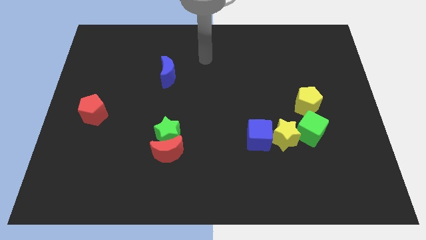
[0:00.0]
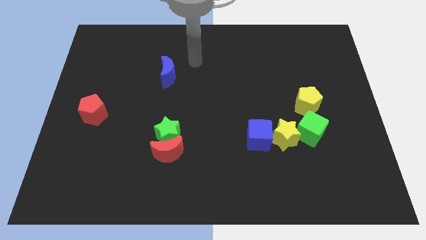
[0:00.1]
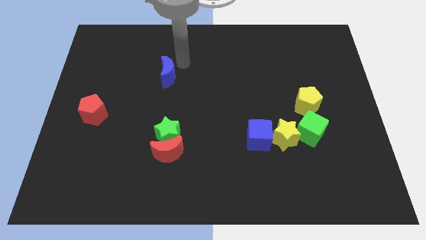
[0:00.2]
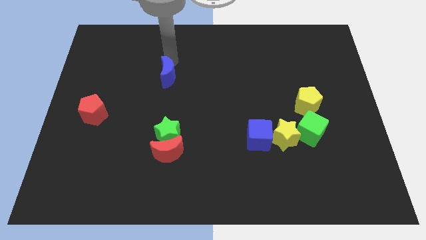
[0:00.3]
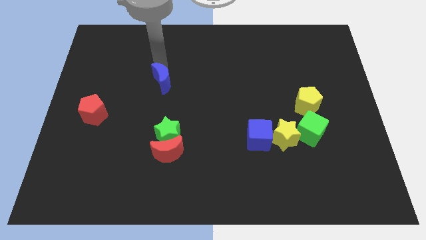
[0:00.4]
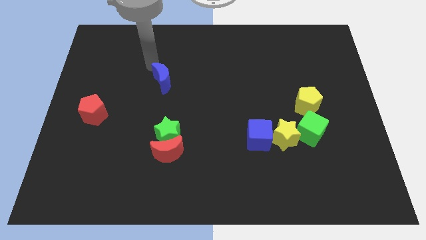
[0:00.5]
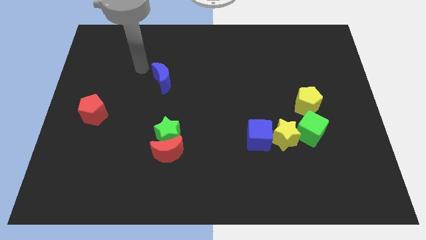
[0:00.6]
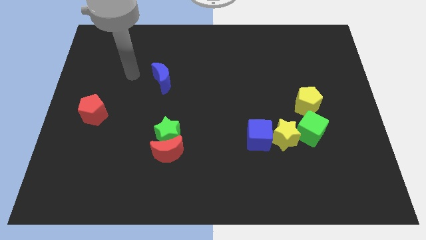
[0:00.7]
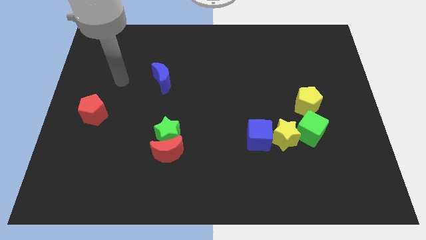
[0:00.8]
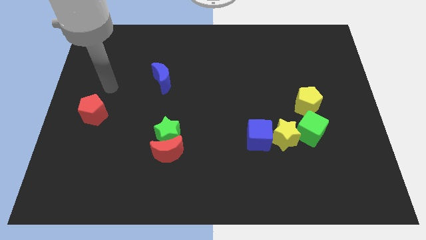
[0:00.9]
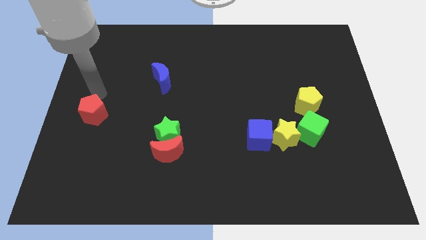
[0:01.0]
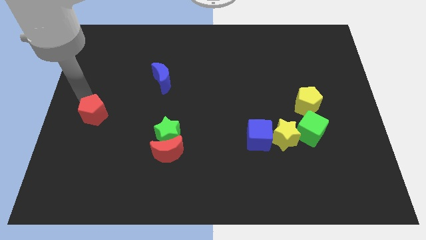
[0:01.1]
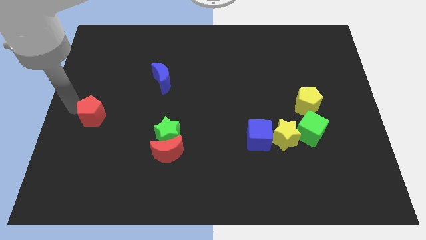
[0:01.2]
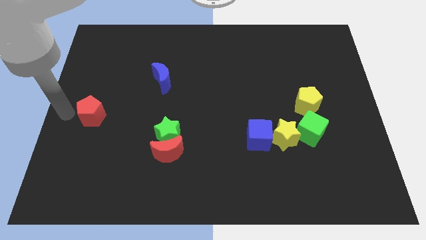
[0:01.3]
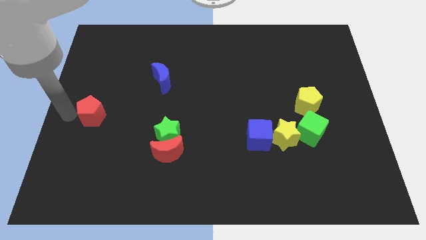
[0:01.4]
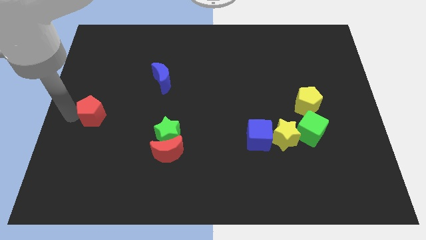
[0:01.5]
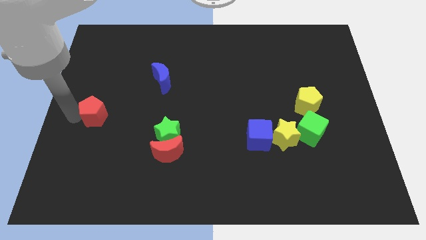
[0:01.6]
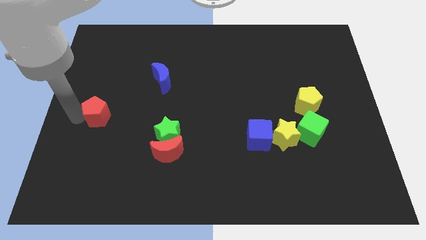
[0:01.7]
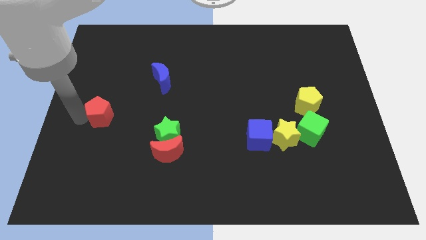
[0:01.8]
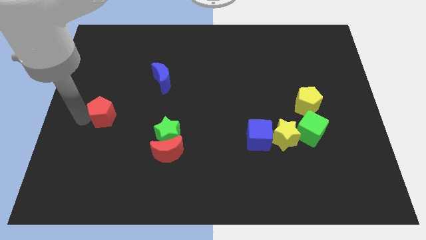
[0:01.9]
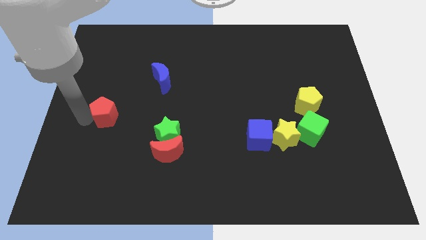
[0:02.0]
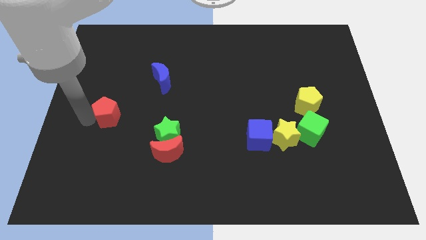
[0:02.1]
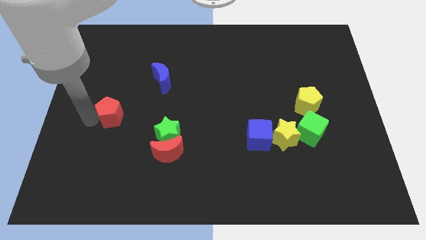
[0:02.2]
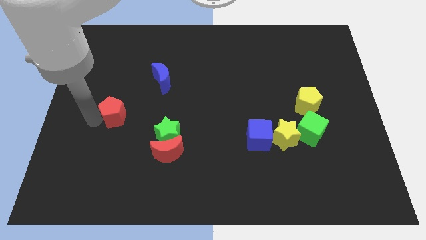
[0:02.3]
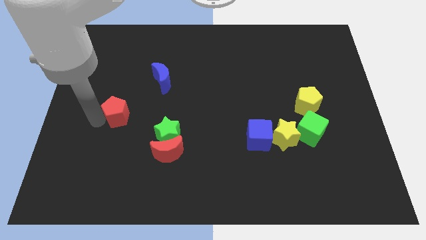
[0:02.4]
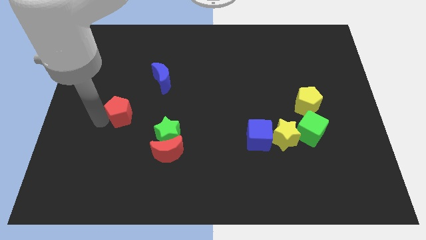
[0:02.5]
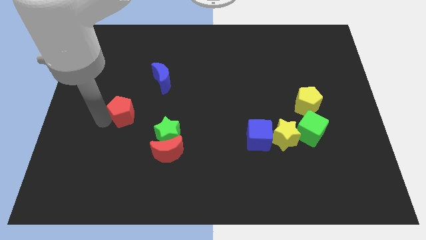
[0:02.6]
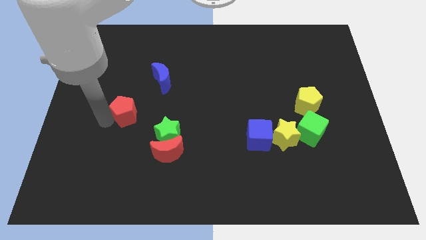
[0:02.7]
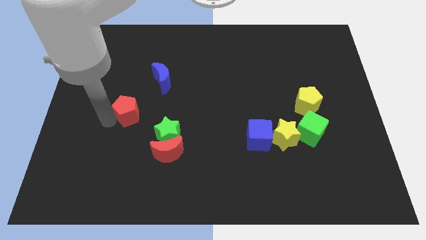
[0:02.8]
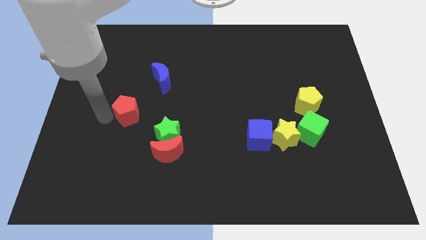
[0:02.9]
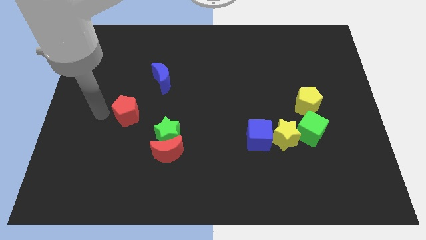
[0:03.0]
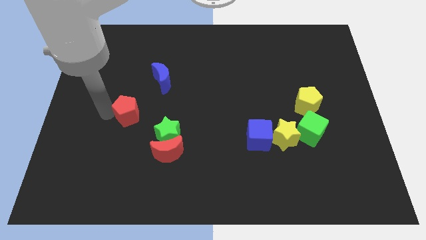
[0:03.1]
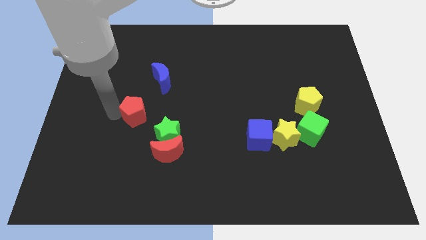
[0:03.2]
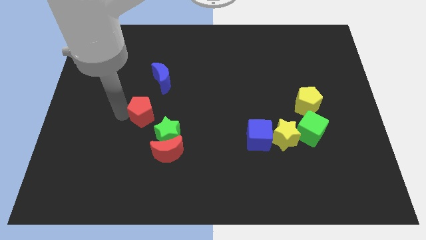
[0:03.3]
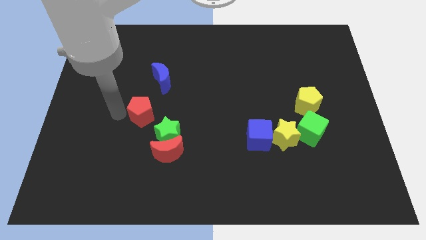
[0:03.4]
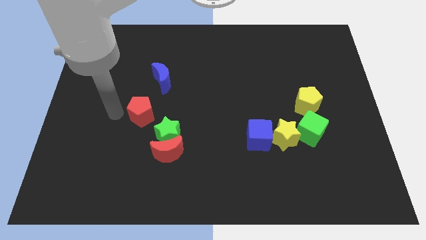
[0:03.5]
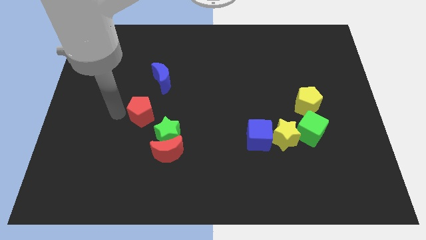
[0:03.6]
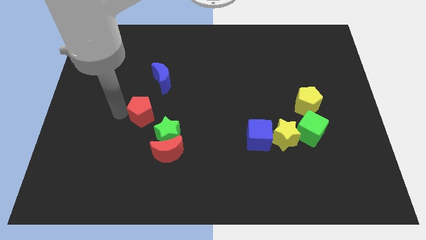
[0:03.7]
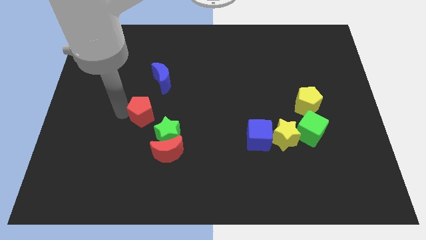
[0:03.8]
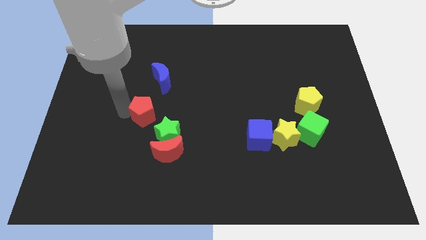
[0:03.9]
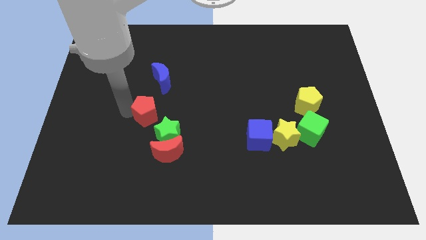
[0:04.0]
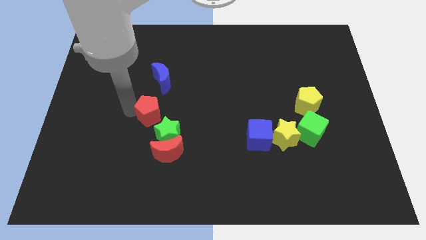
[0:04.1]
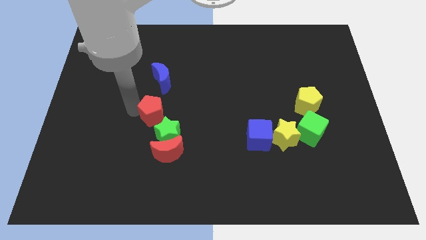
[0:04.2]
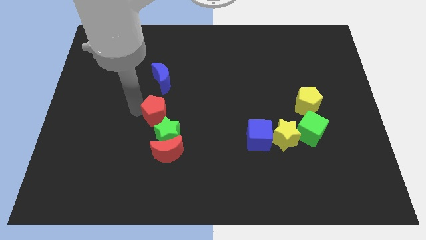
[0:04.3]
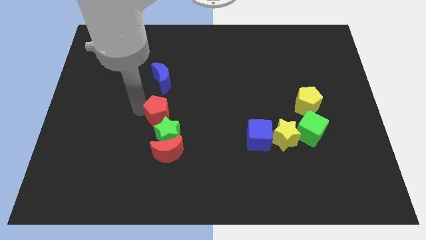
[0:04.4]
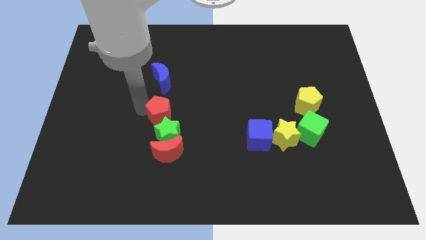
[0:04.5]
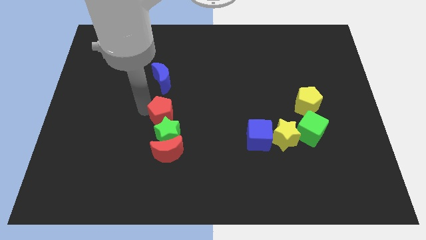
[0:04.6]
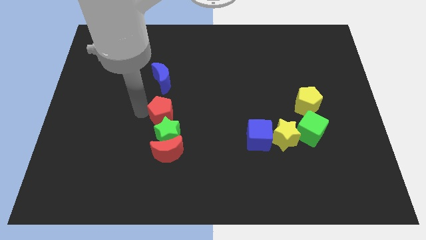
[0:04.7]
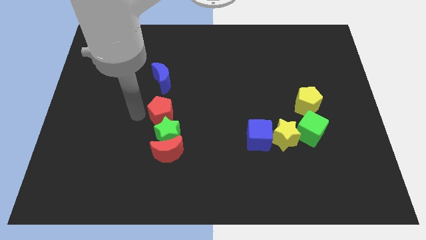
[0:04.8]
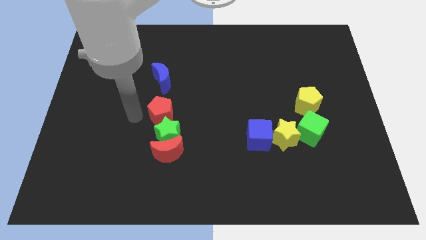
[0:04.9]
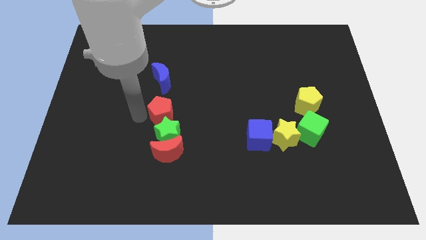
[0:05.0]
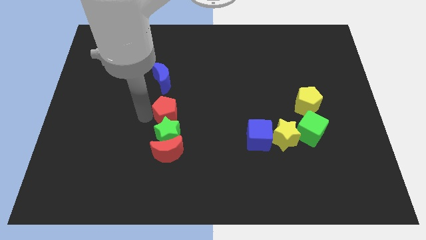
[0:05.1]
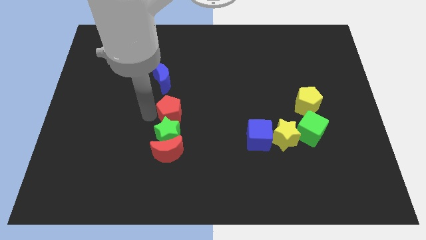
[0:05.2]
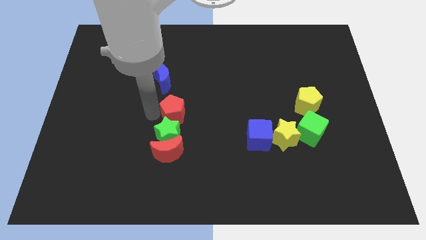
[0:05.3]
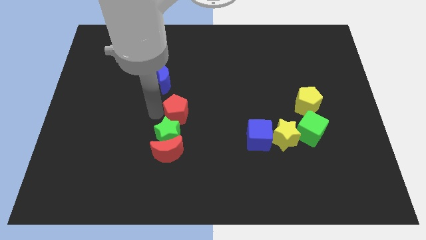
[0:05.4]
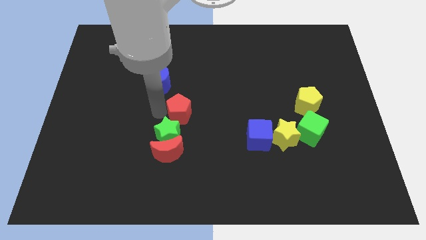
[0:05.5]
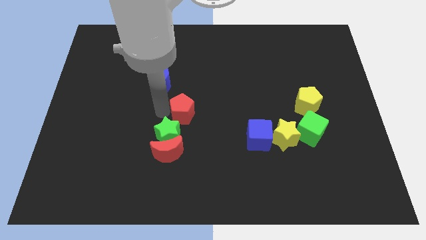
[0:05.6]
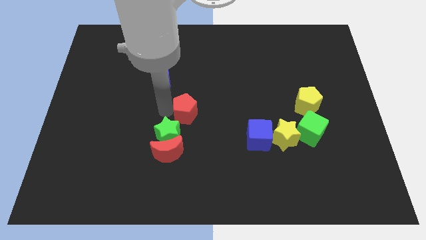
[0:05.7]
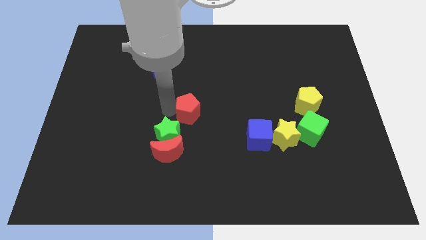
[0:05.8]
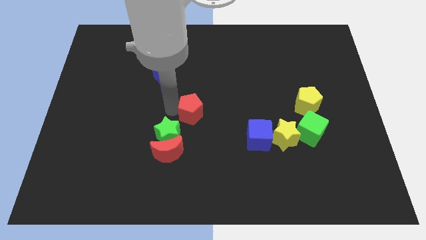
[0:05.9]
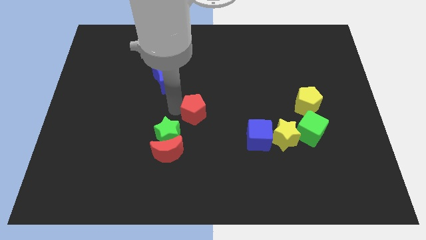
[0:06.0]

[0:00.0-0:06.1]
put the red pentagon to the top right of the red moon

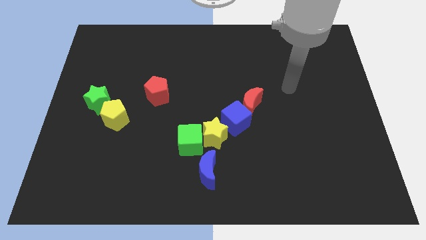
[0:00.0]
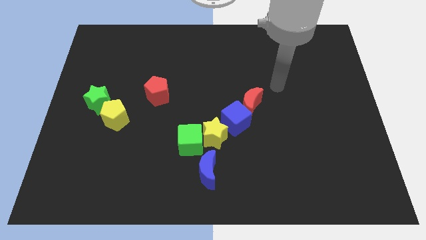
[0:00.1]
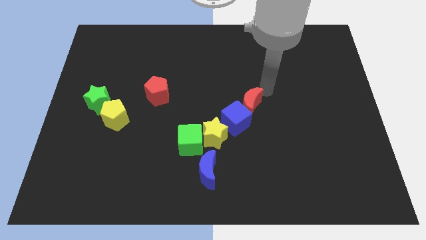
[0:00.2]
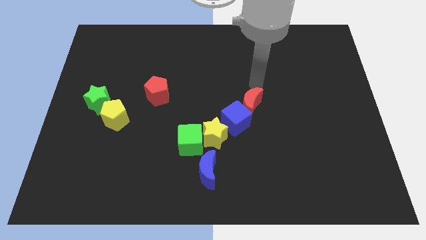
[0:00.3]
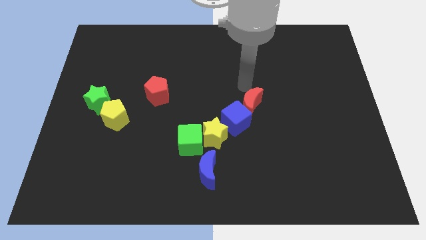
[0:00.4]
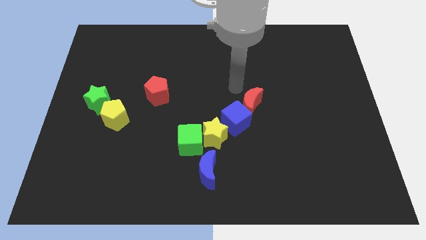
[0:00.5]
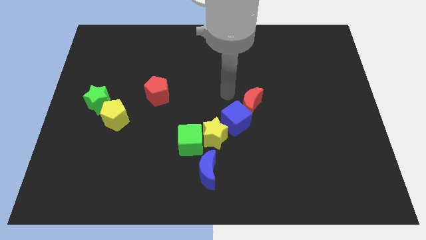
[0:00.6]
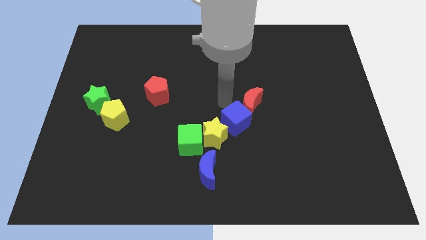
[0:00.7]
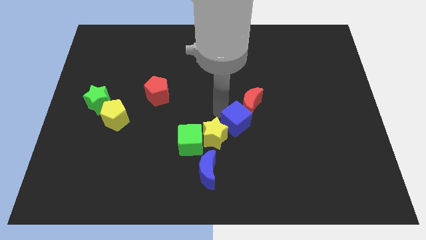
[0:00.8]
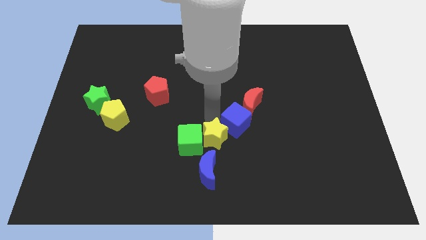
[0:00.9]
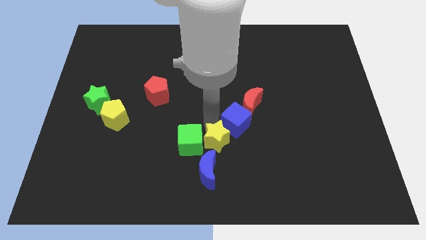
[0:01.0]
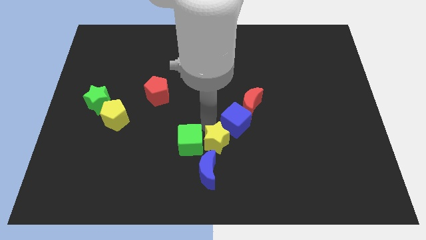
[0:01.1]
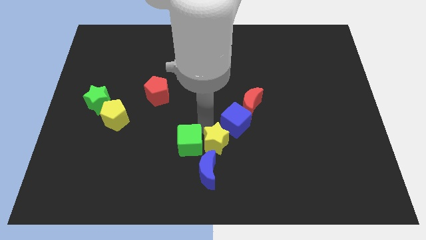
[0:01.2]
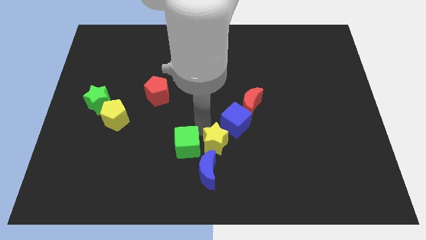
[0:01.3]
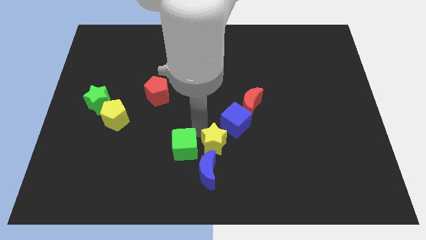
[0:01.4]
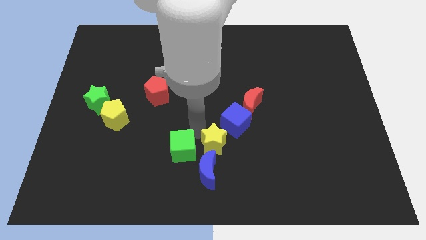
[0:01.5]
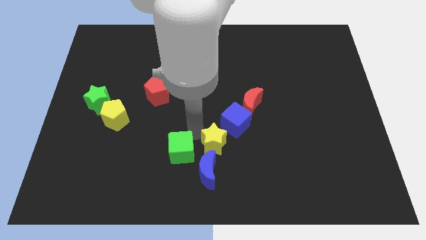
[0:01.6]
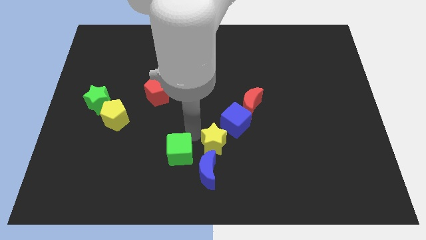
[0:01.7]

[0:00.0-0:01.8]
slide the green cube to the left of the blue moon
